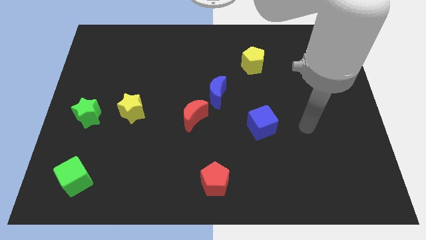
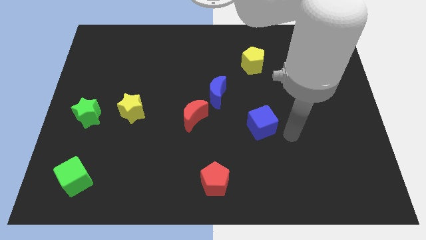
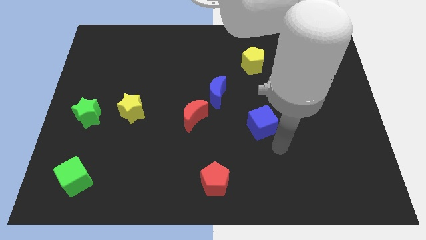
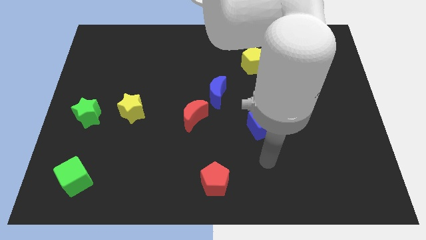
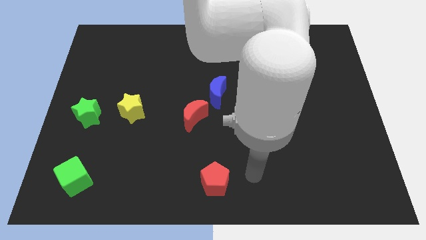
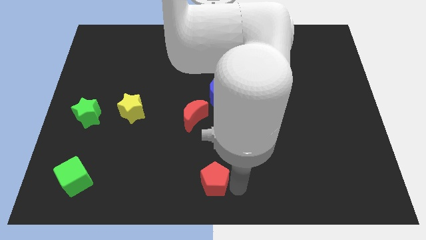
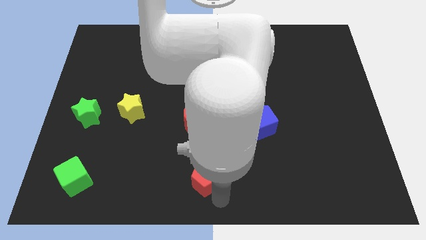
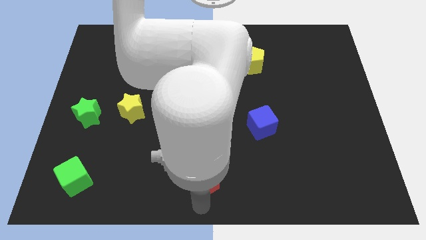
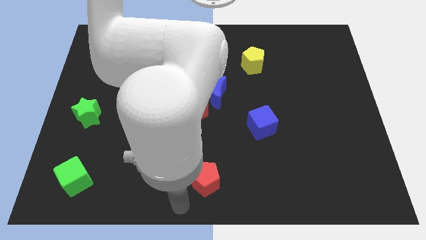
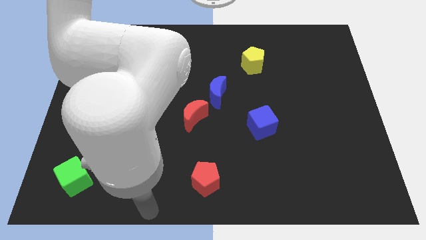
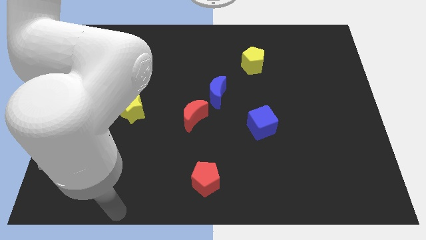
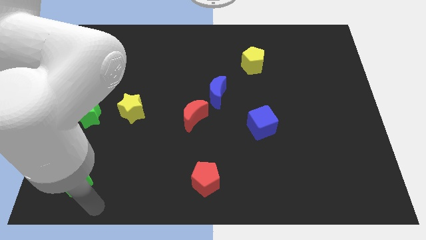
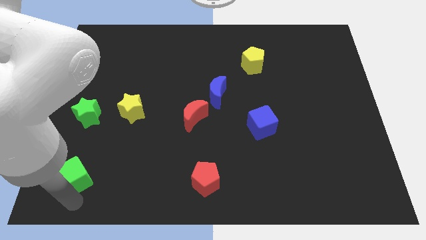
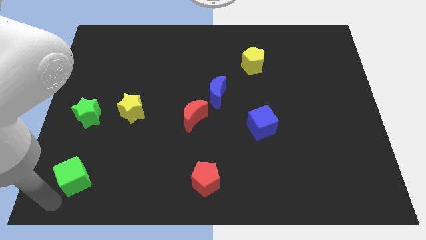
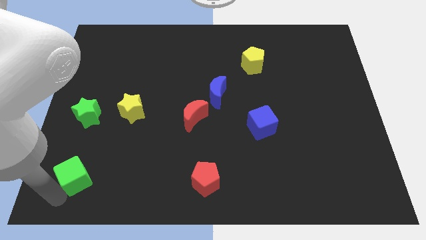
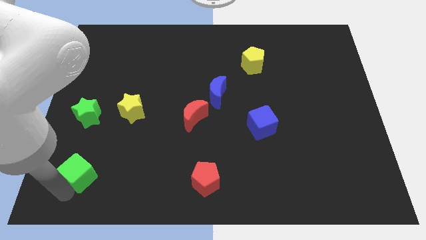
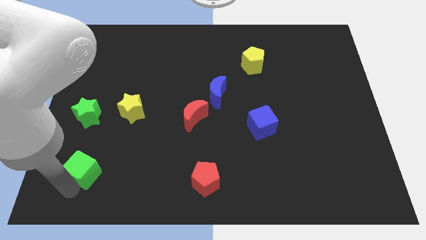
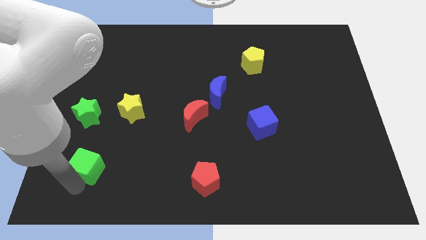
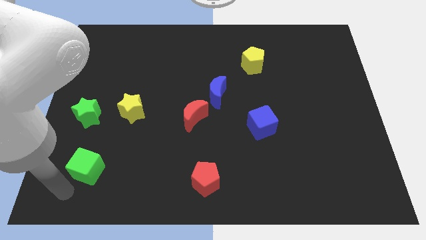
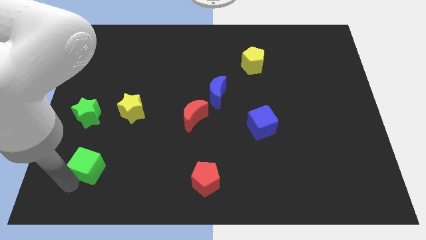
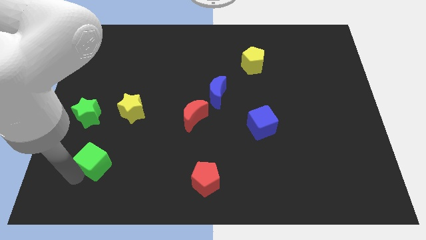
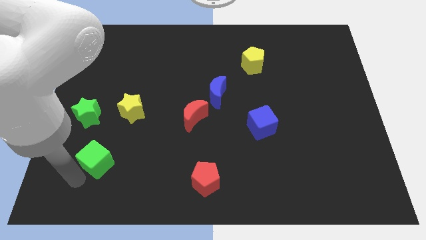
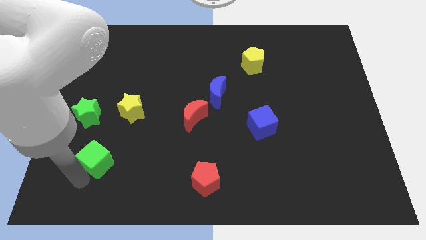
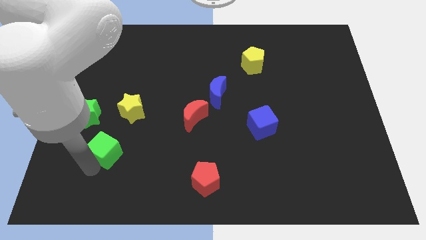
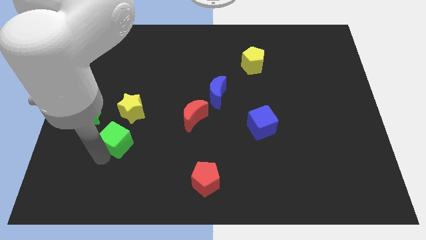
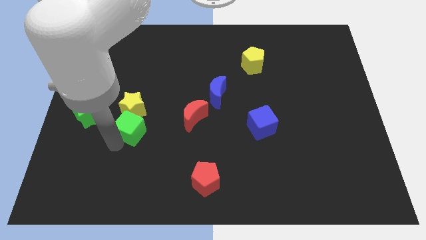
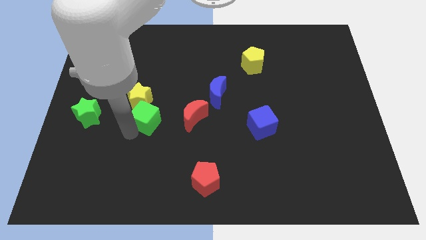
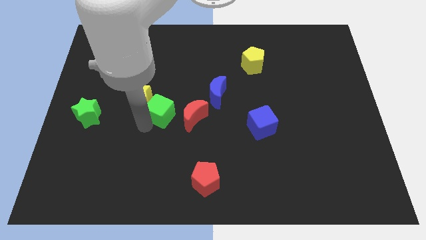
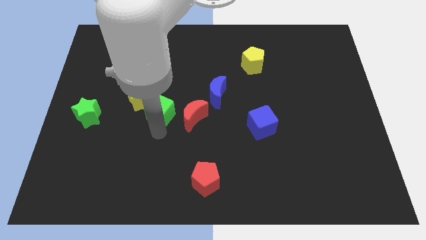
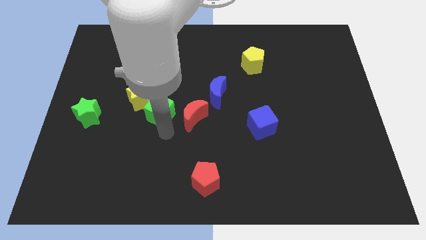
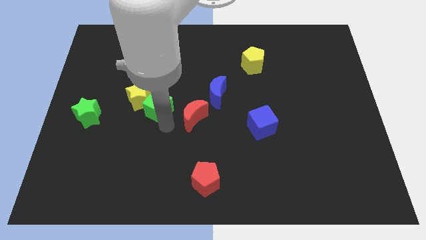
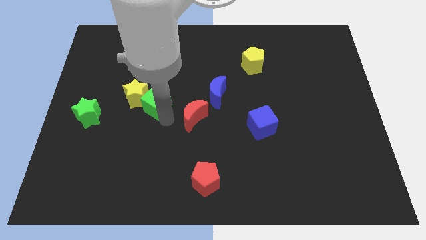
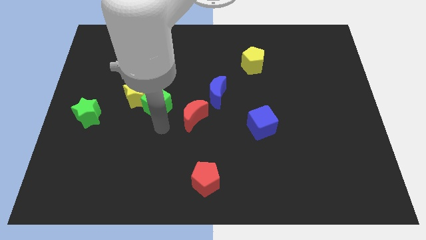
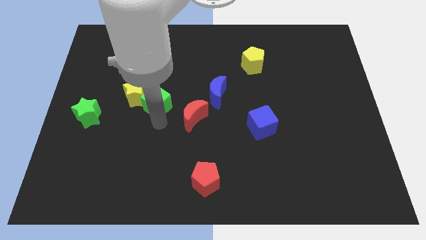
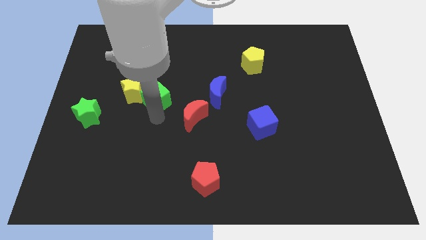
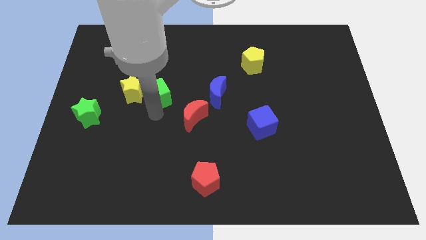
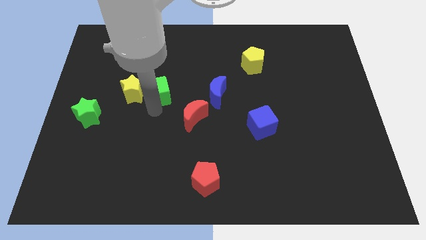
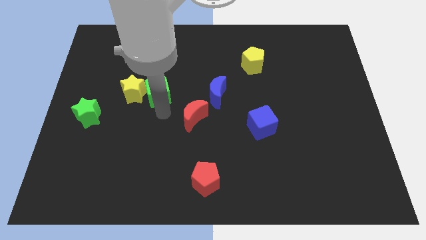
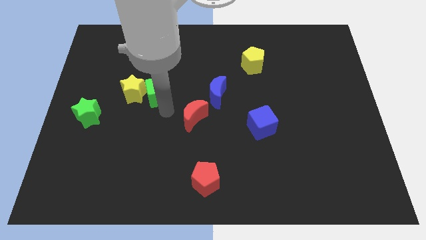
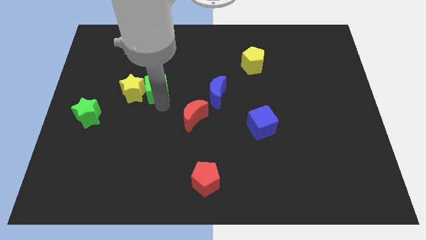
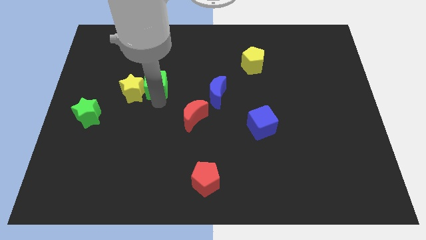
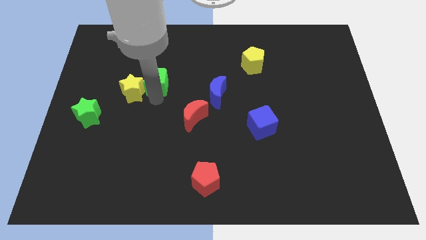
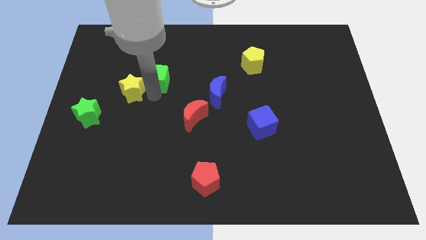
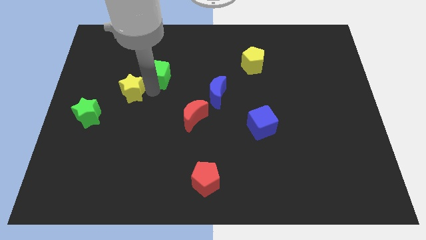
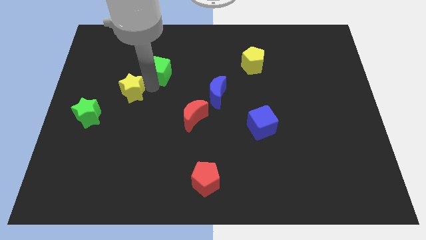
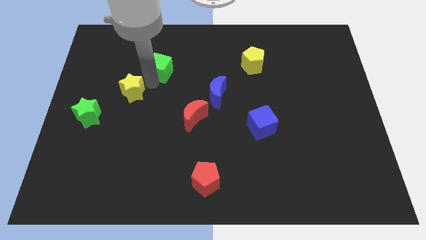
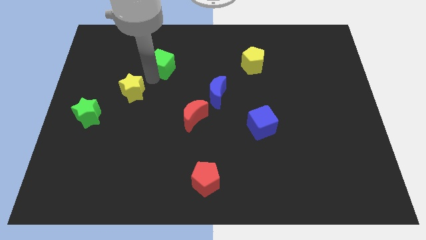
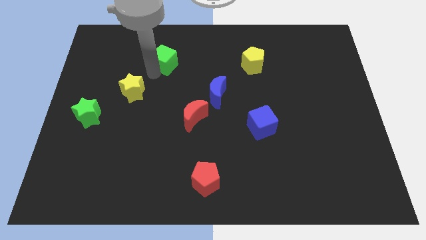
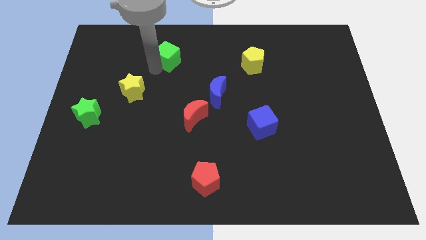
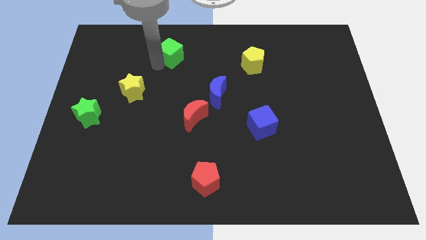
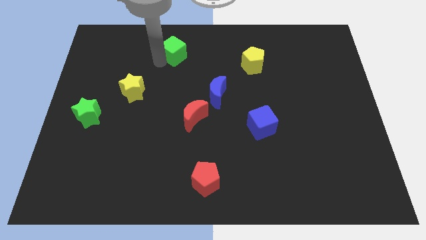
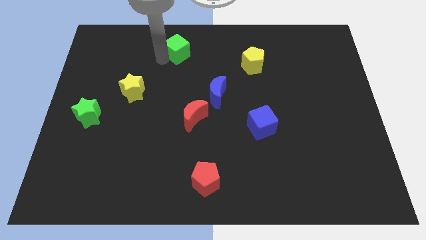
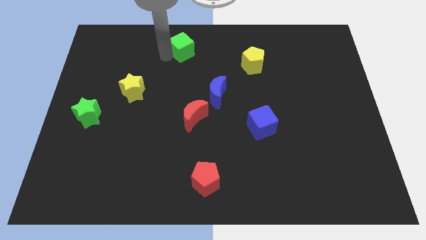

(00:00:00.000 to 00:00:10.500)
put the green cube to the towards your base

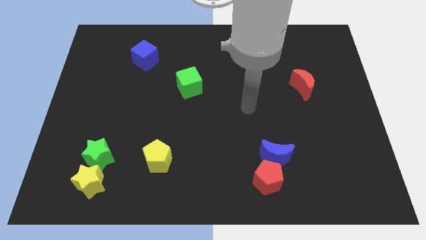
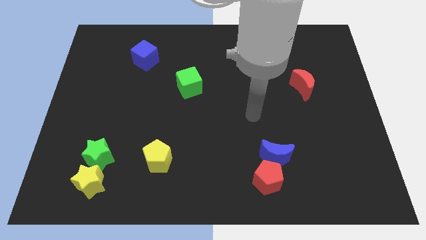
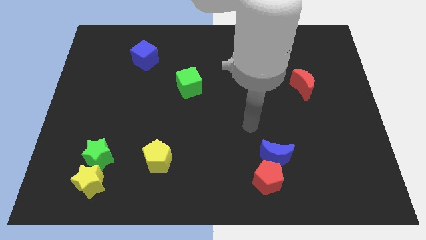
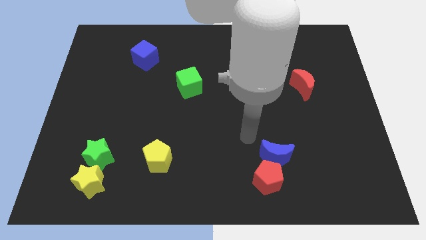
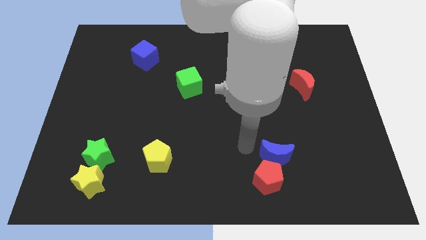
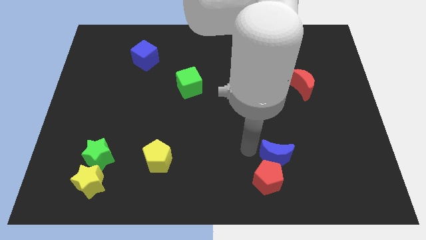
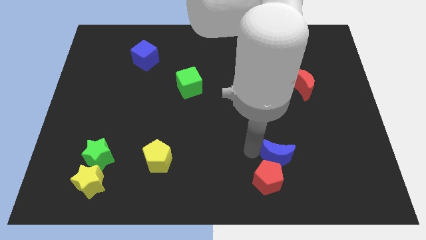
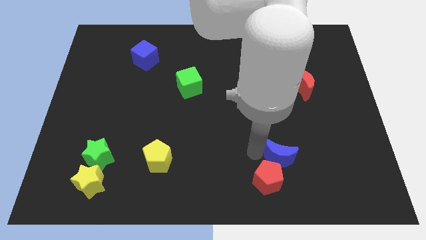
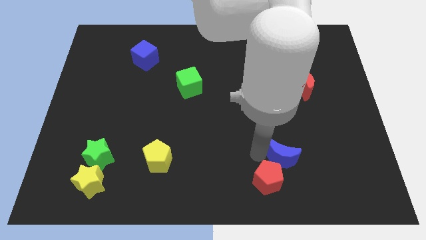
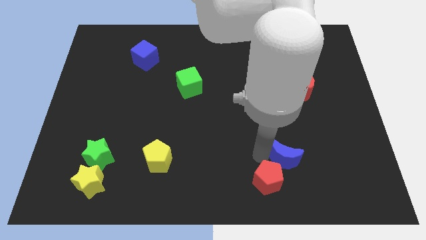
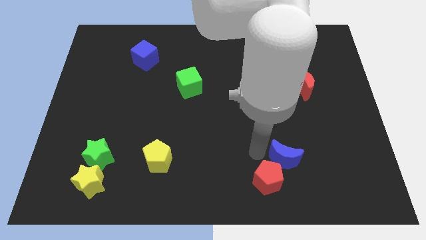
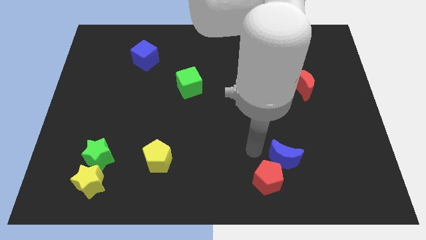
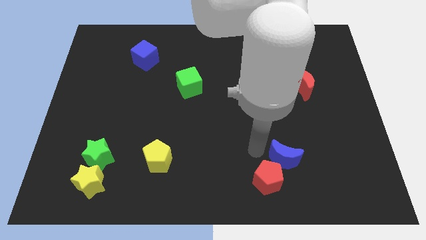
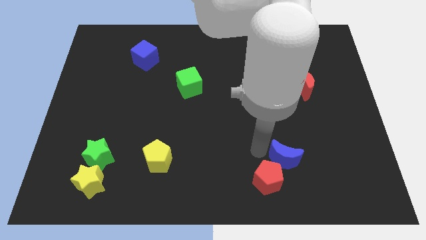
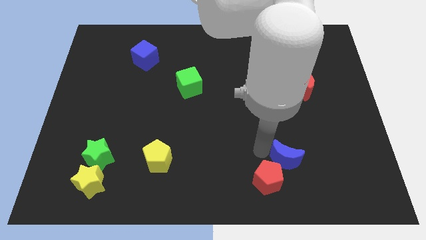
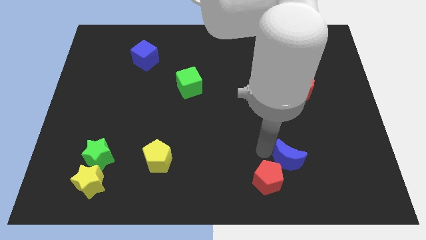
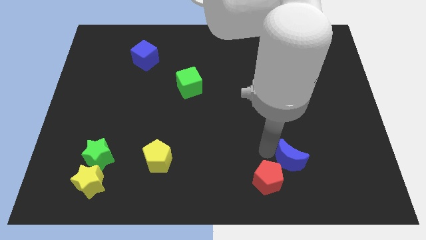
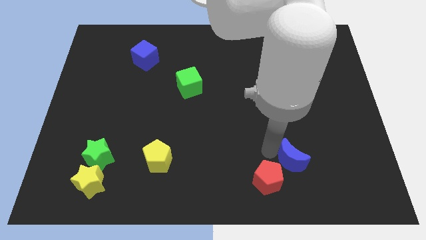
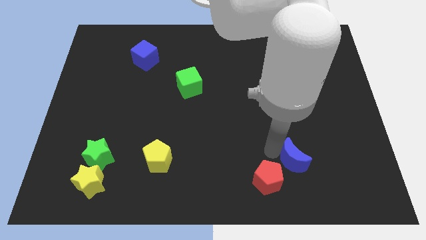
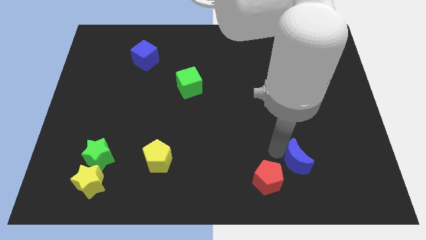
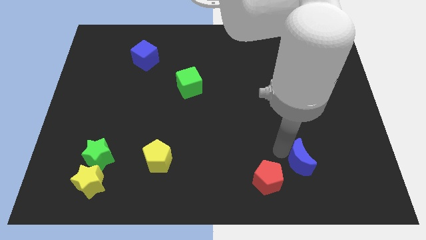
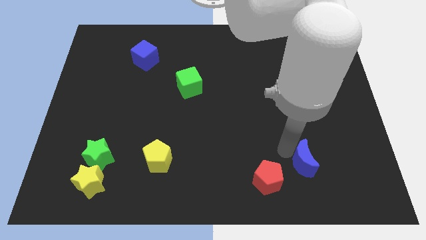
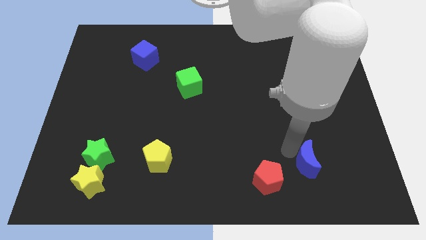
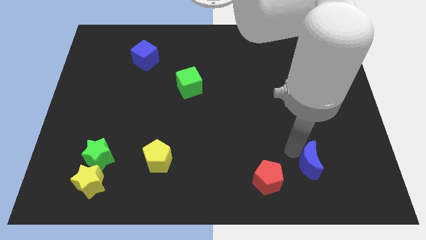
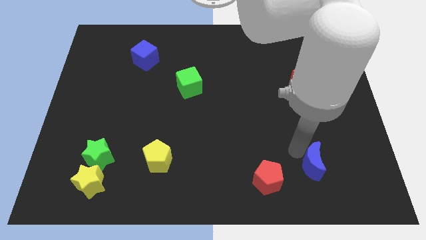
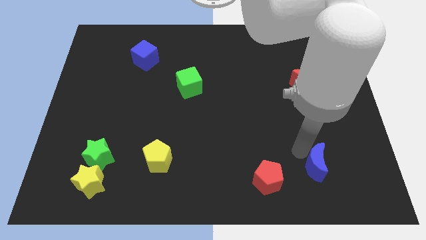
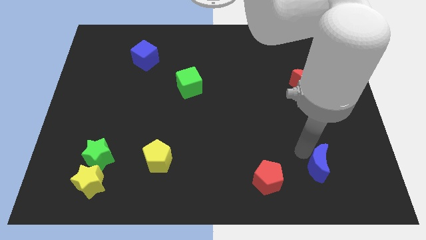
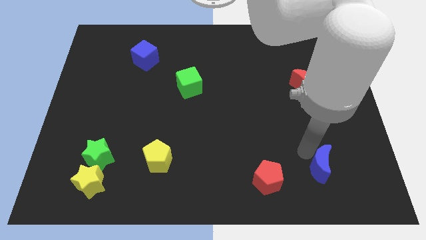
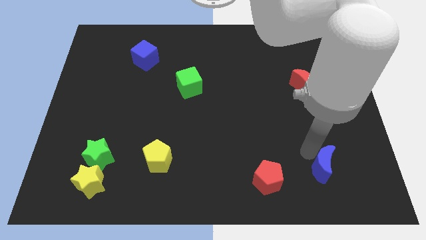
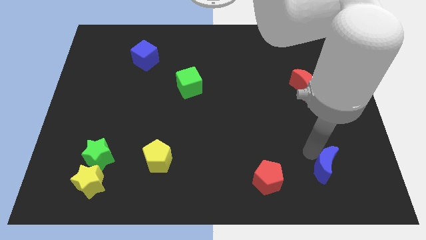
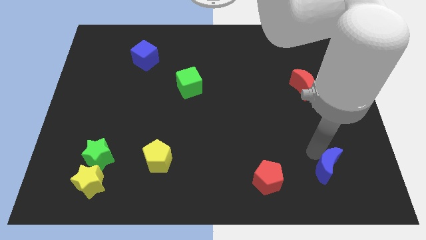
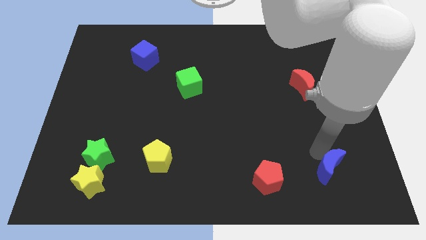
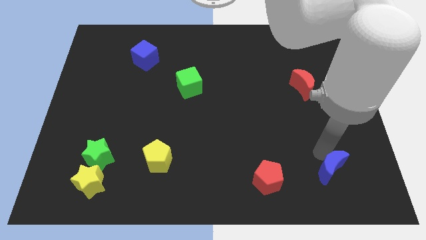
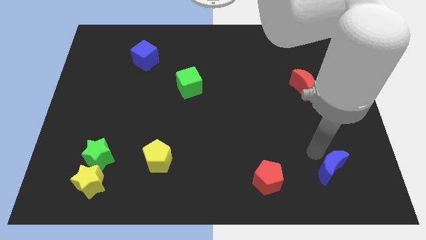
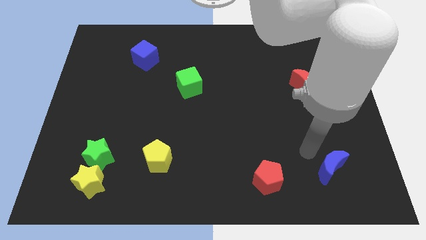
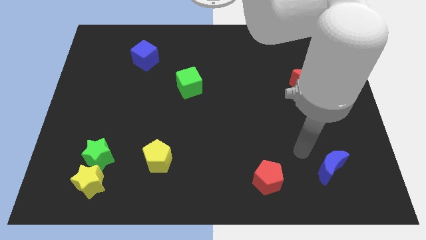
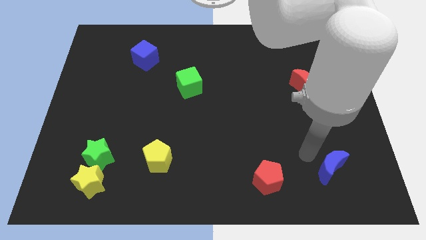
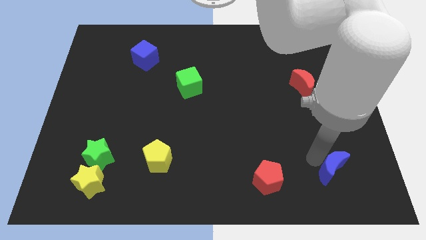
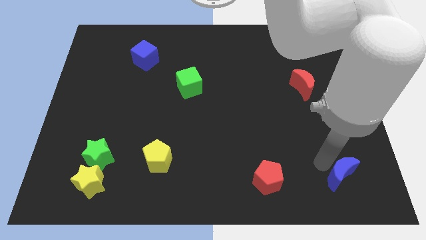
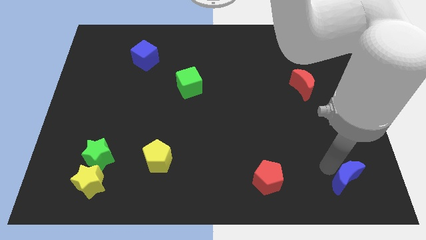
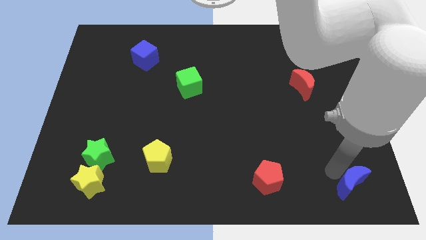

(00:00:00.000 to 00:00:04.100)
put the blue moon to the bottom right
